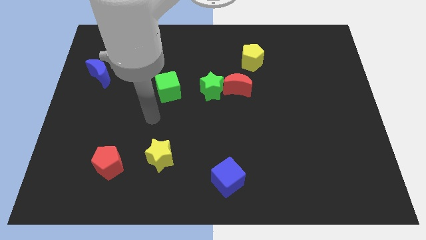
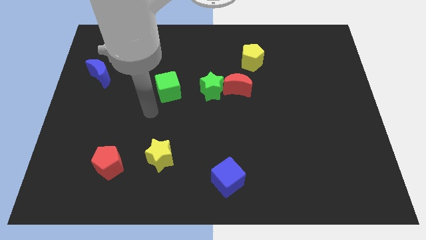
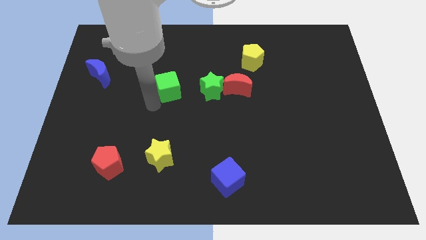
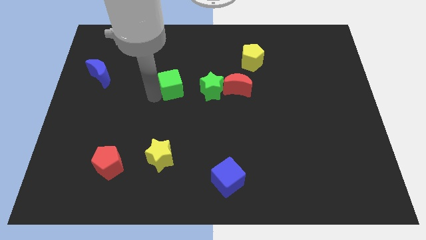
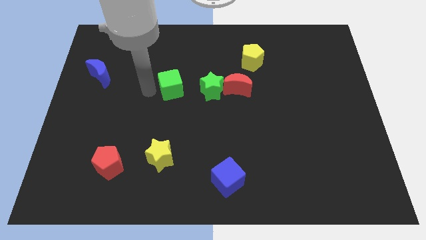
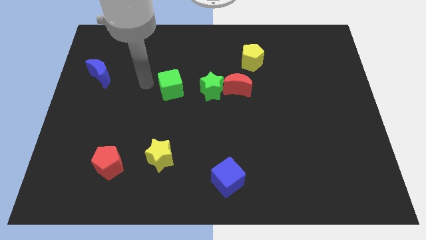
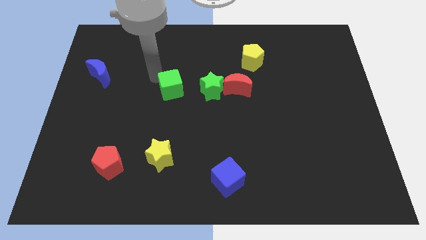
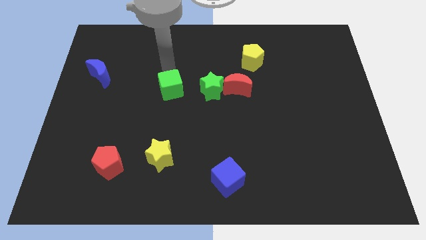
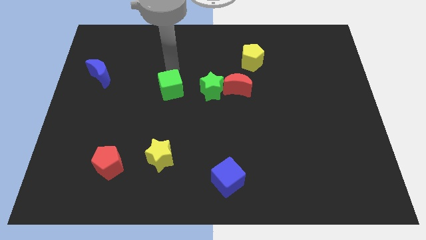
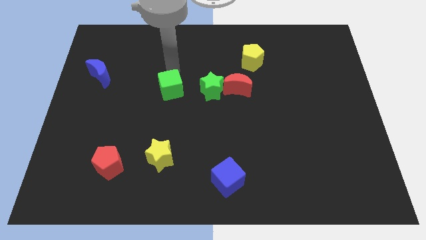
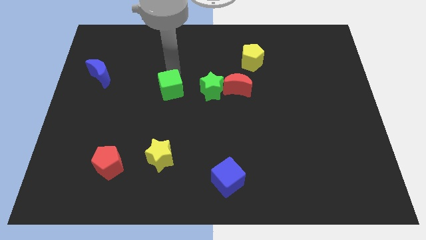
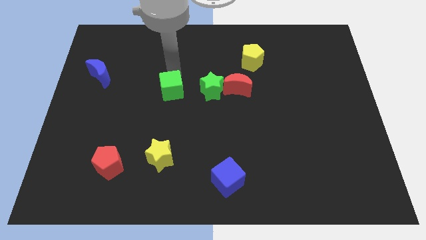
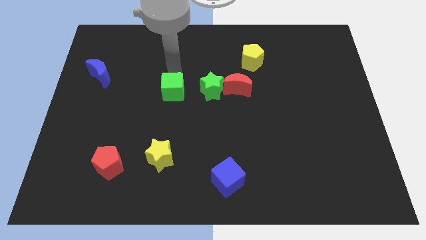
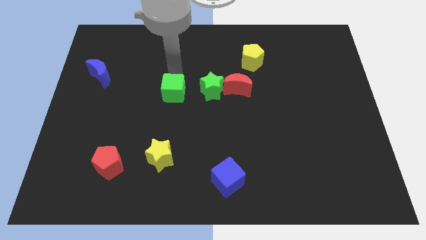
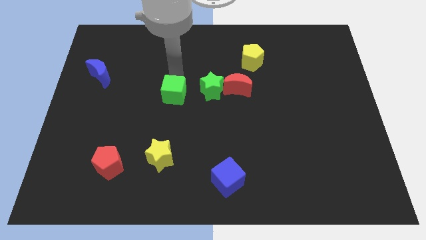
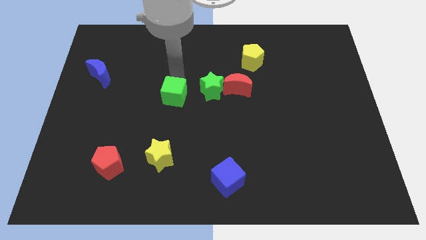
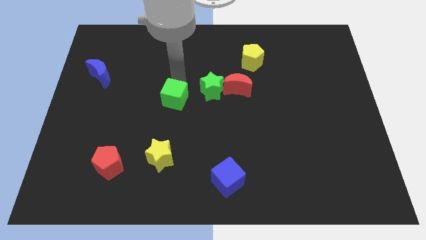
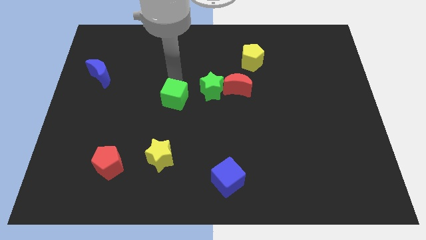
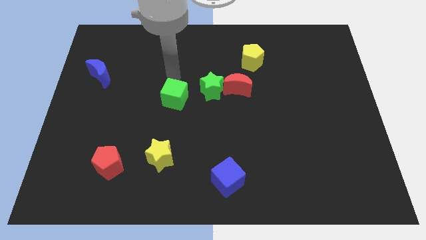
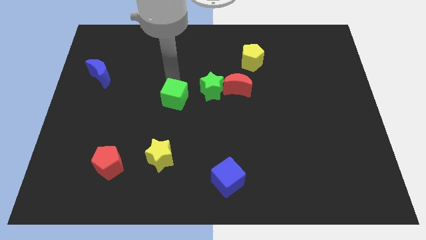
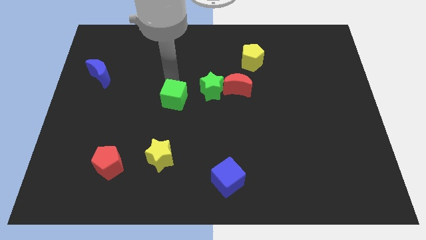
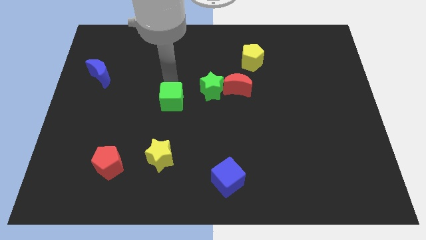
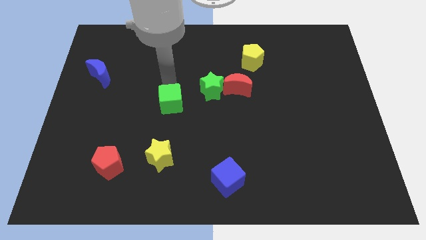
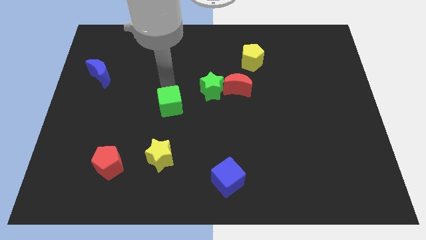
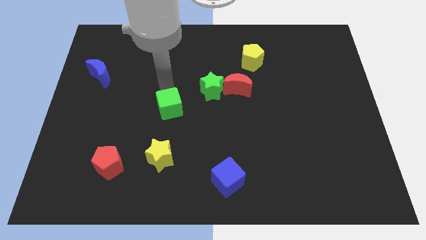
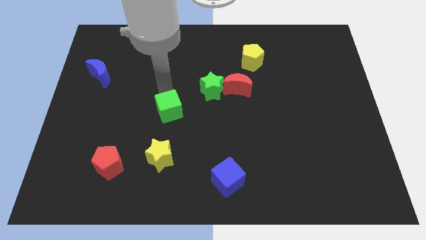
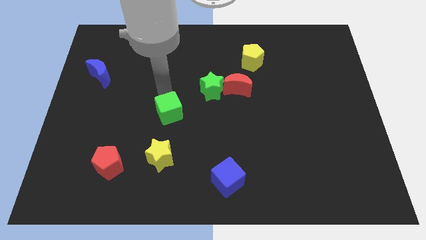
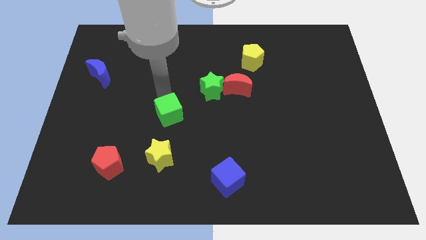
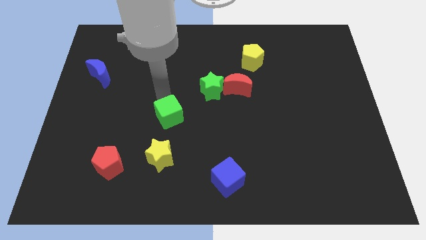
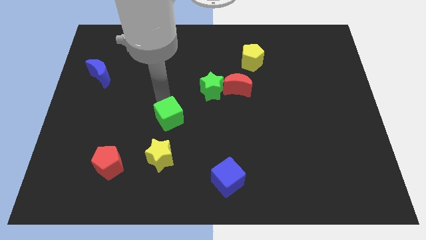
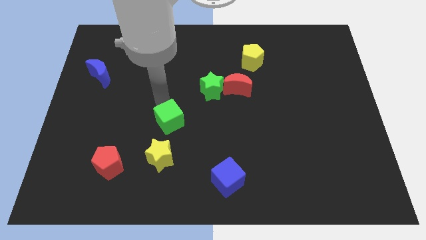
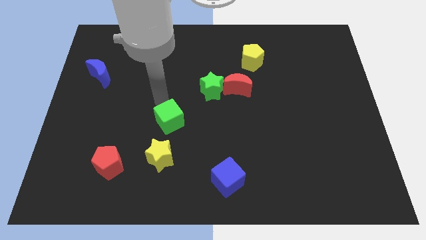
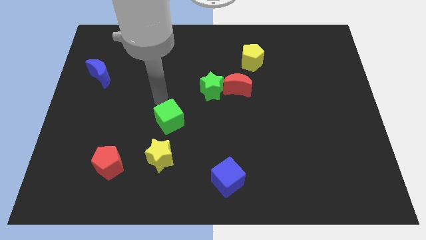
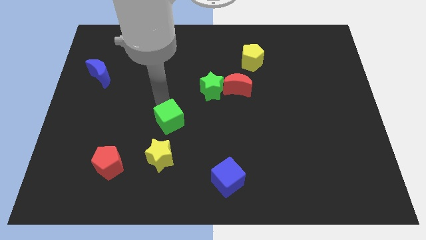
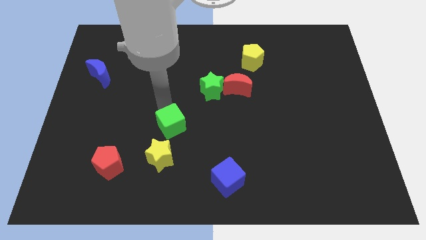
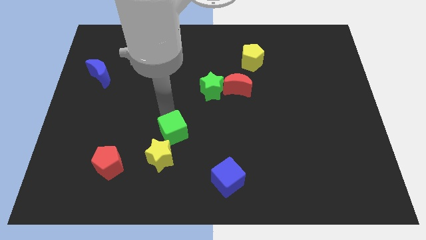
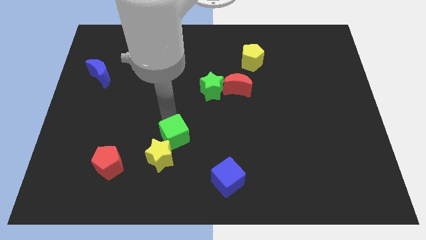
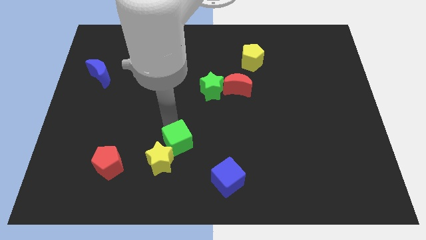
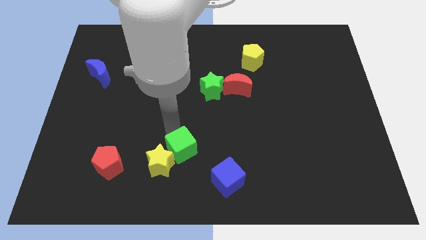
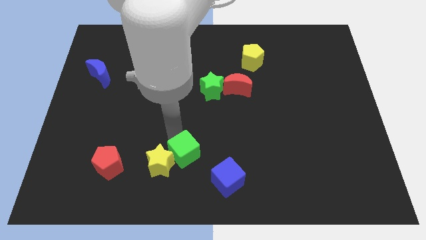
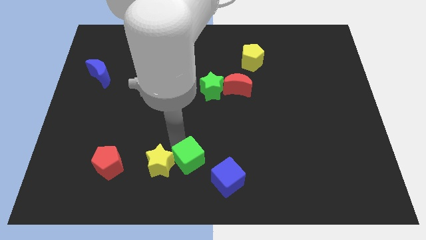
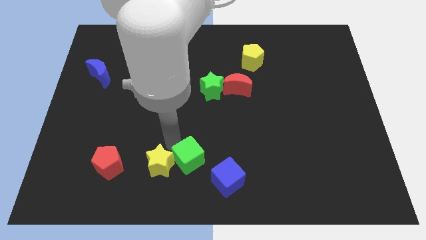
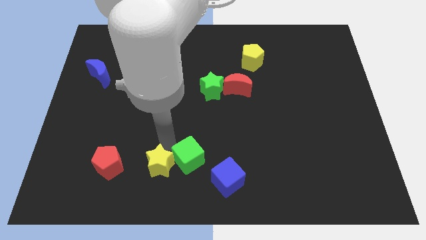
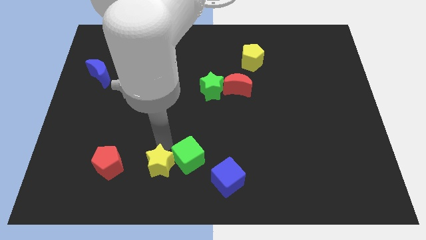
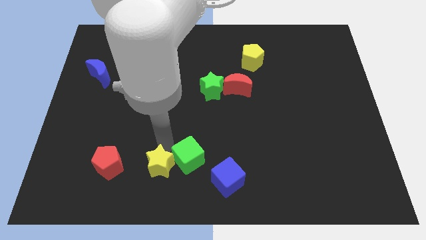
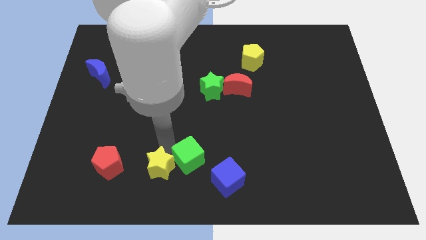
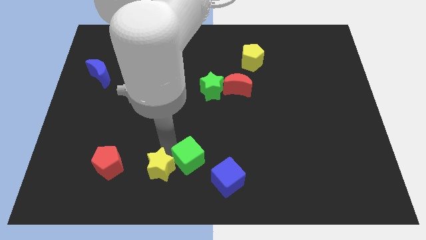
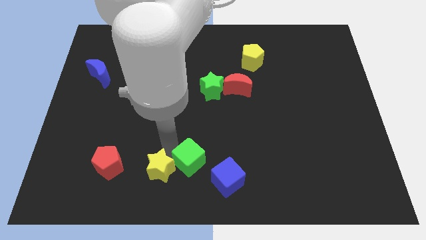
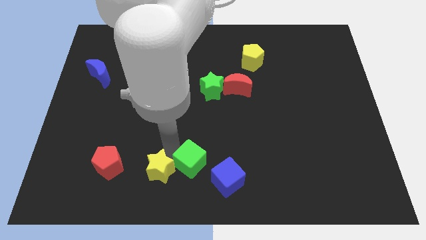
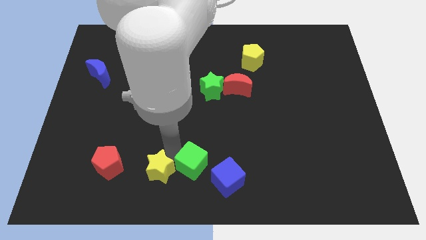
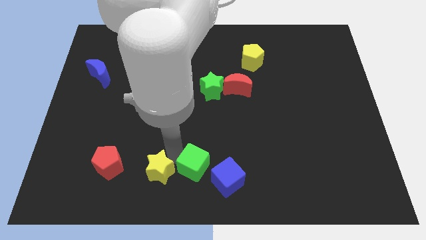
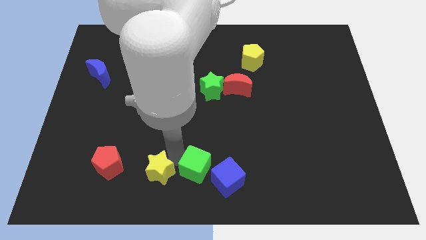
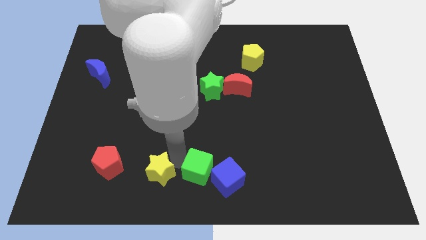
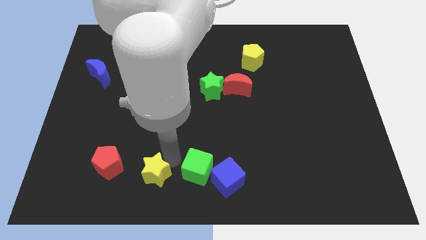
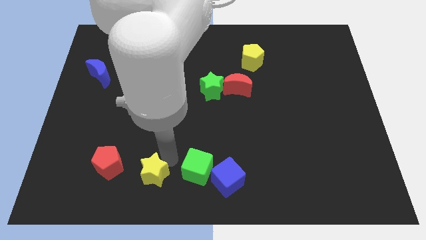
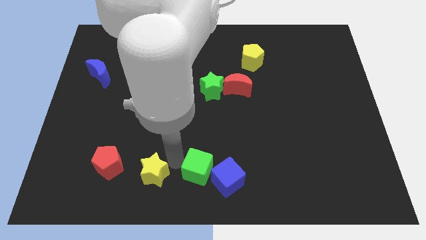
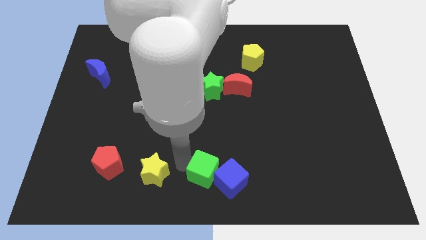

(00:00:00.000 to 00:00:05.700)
put the green cube close to the blue cube

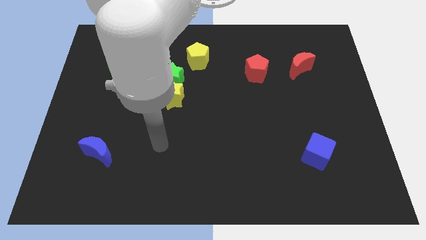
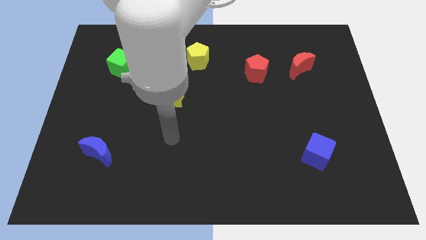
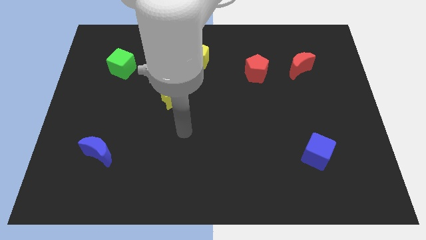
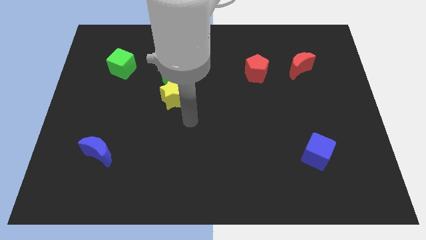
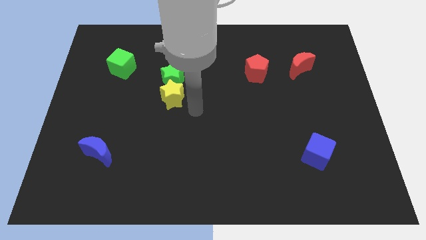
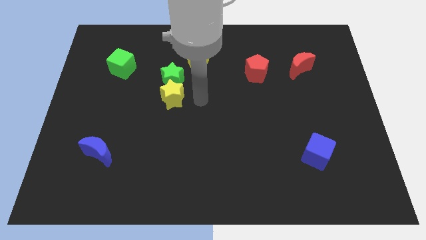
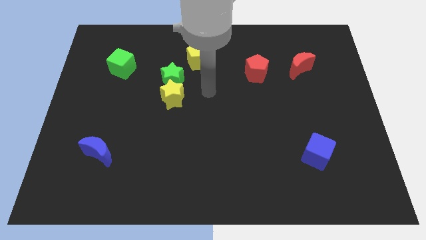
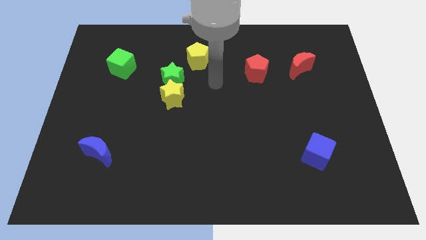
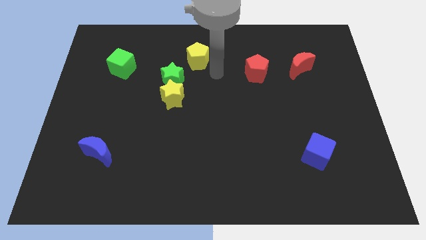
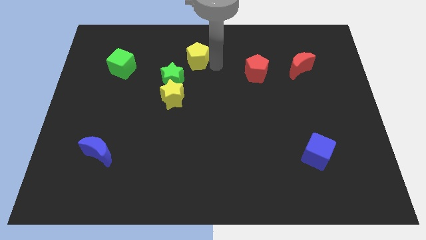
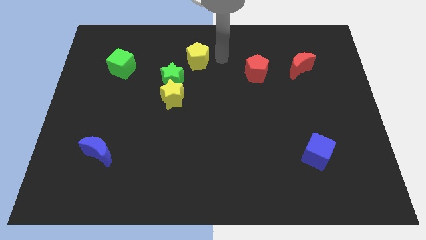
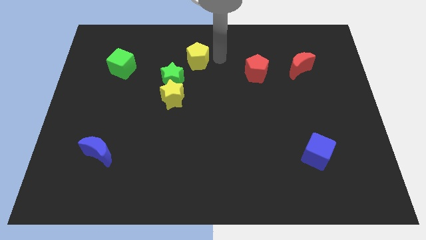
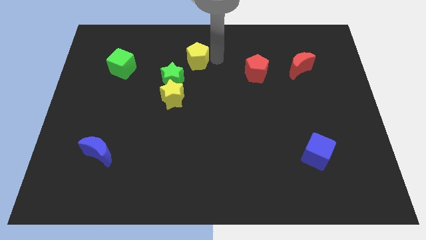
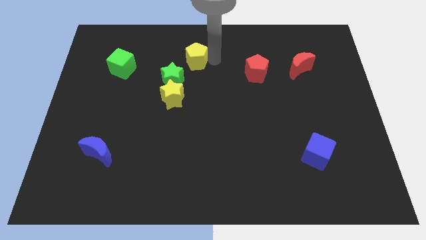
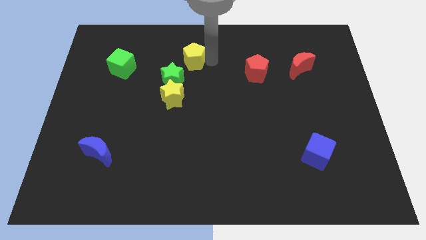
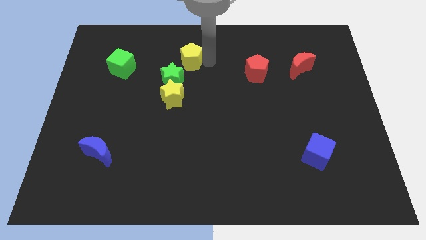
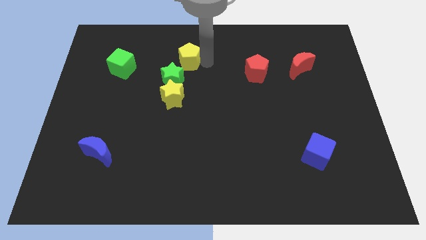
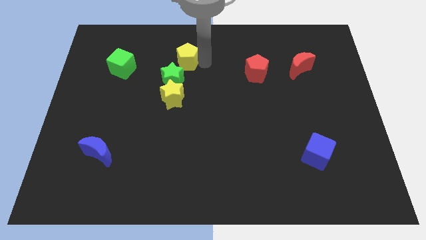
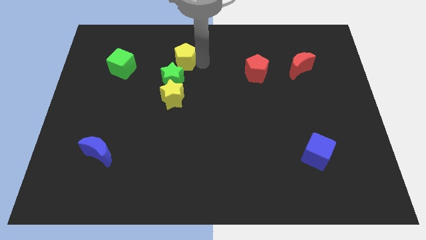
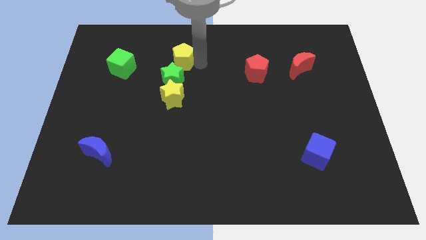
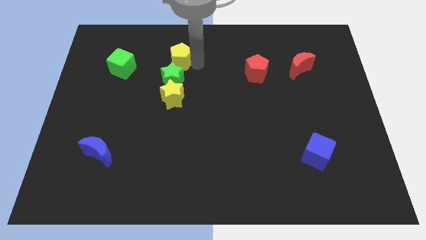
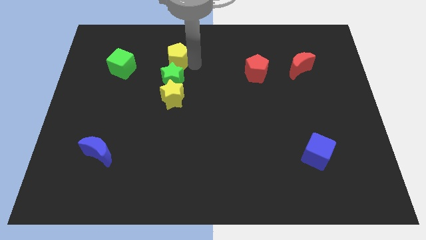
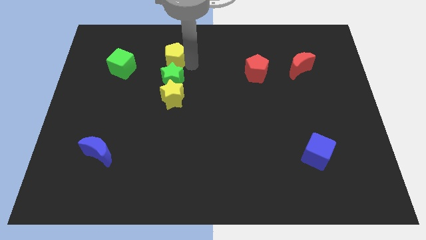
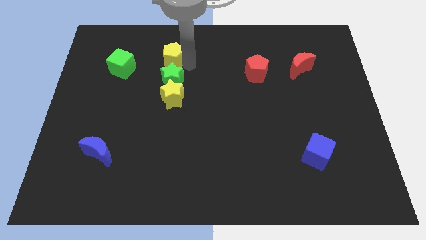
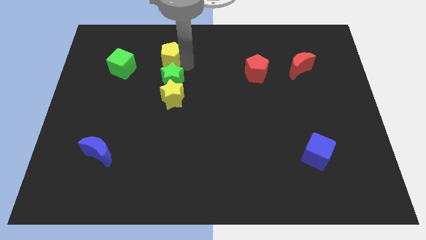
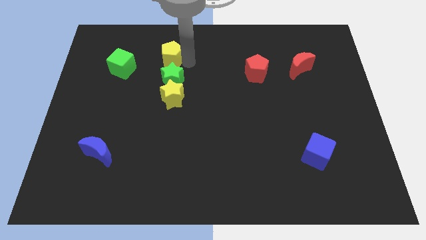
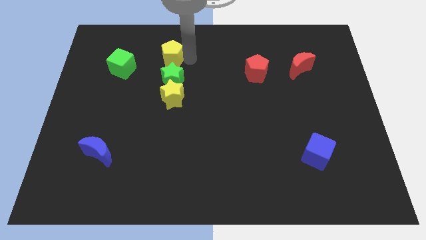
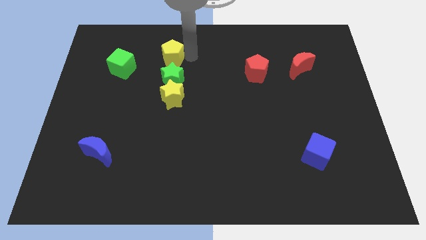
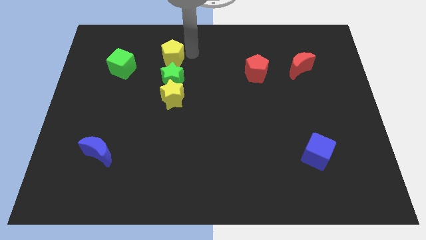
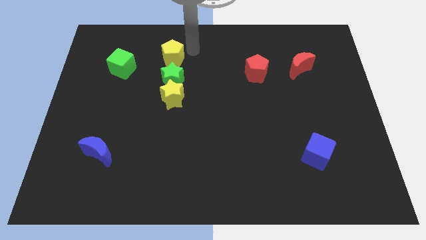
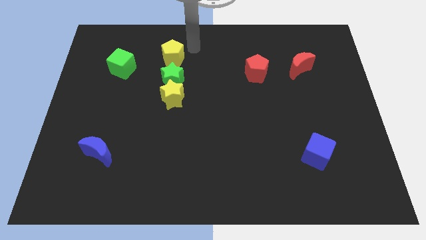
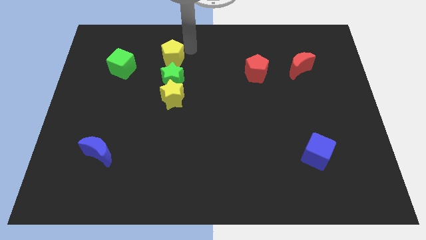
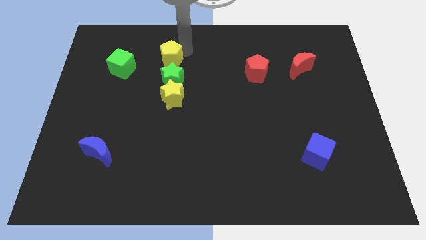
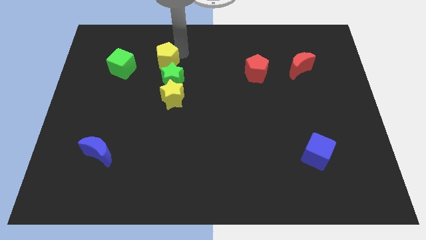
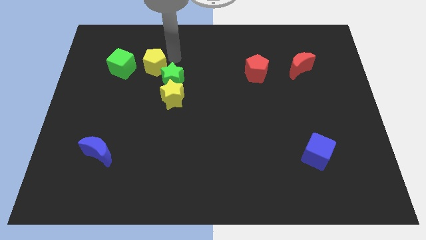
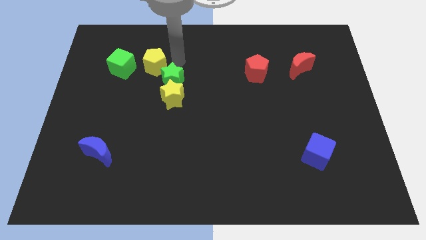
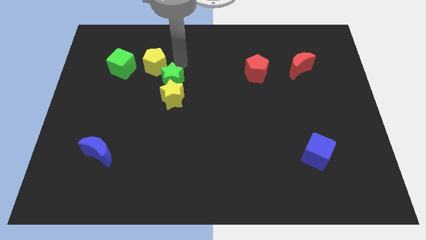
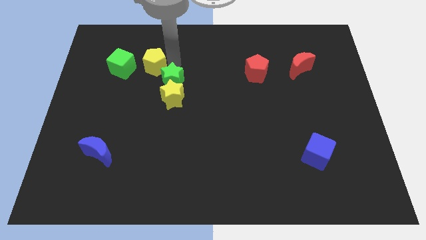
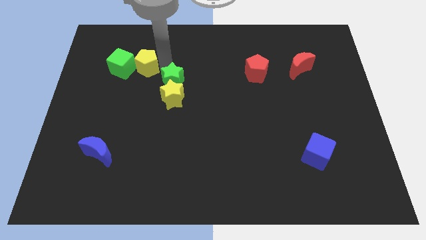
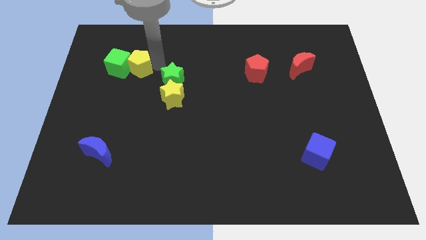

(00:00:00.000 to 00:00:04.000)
put the yellow pentagon close to the green cube
